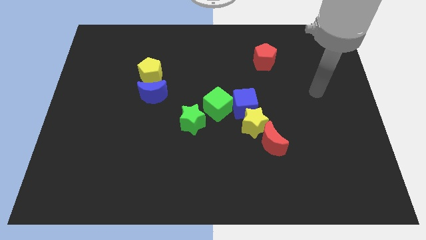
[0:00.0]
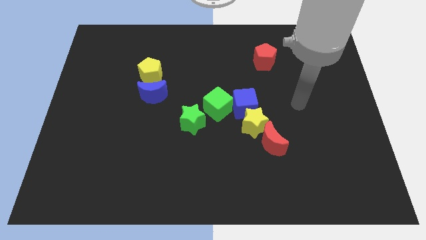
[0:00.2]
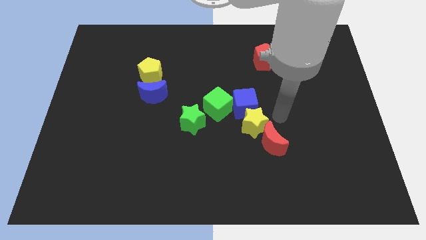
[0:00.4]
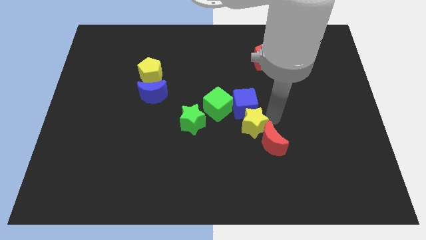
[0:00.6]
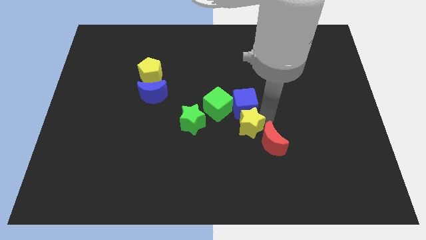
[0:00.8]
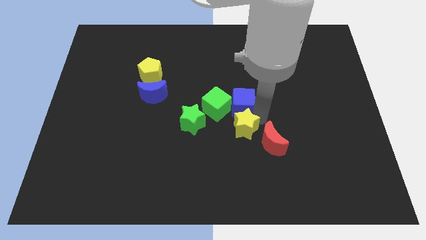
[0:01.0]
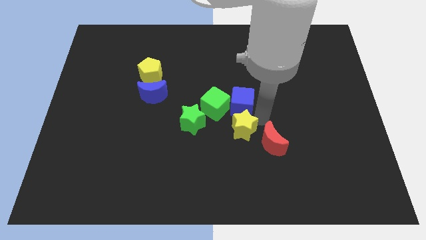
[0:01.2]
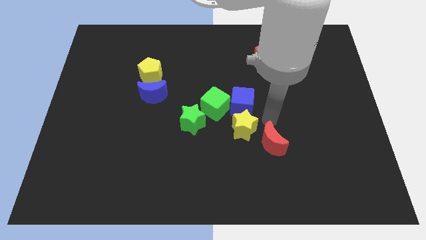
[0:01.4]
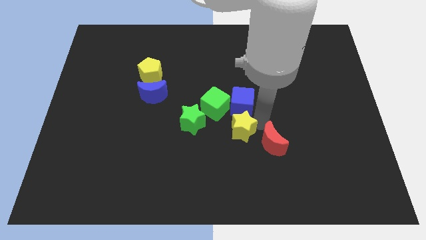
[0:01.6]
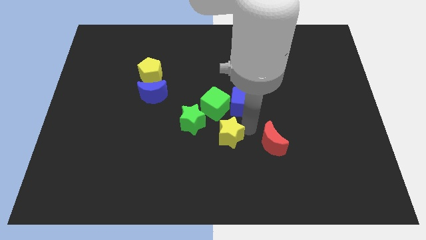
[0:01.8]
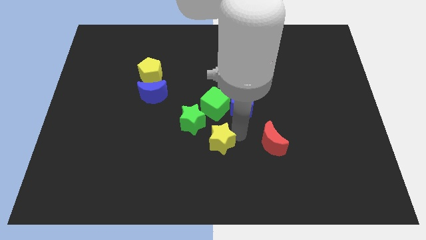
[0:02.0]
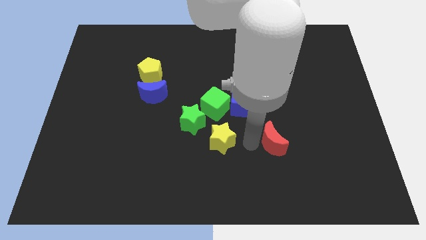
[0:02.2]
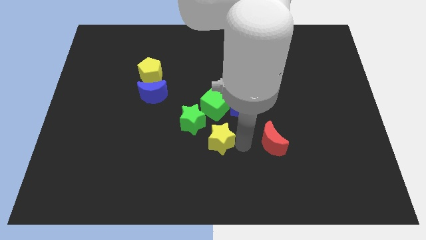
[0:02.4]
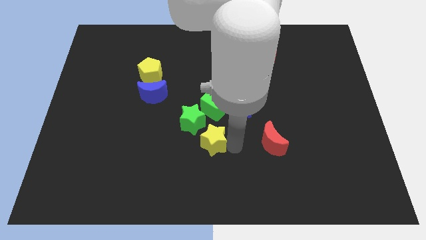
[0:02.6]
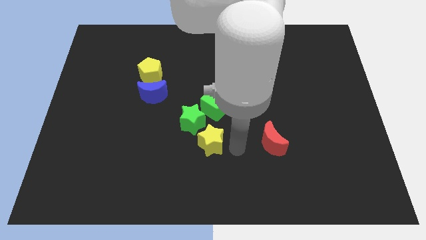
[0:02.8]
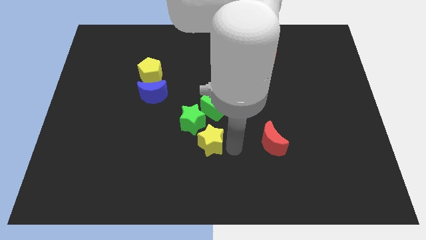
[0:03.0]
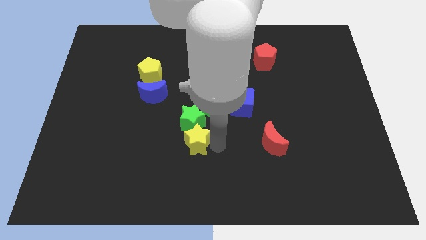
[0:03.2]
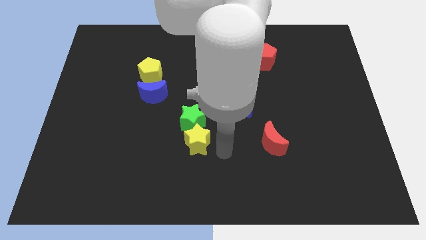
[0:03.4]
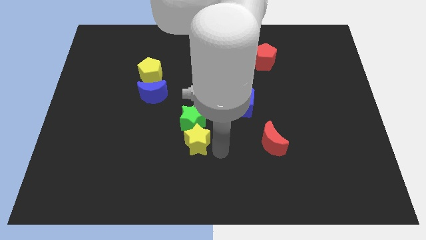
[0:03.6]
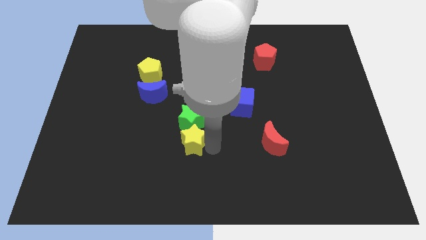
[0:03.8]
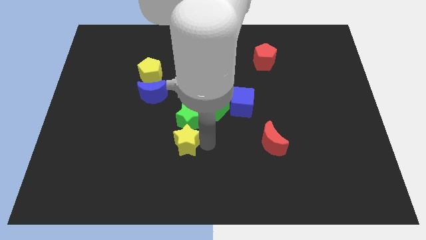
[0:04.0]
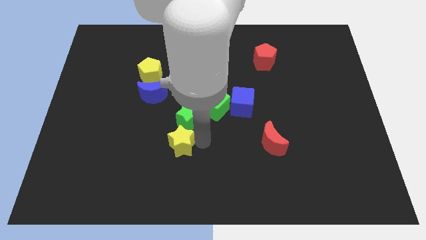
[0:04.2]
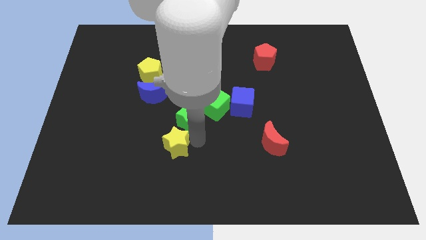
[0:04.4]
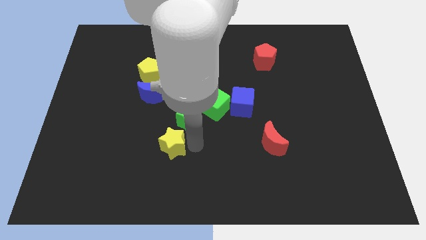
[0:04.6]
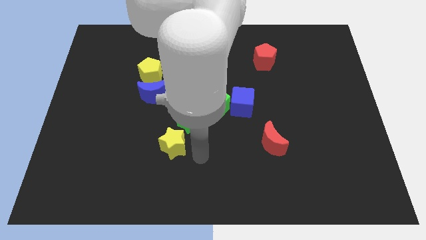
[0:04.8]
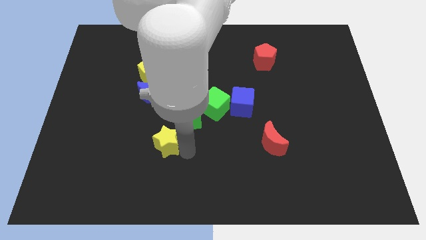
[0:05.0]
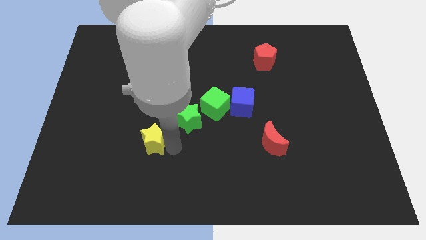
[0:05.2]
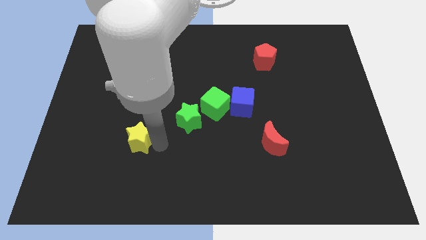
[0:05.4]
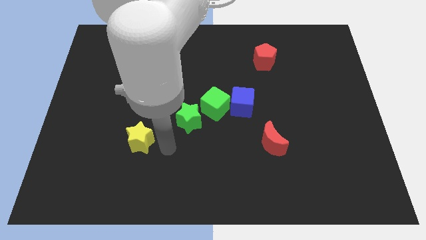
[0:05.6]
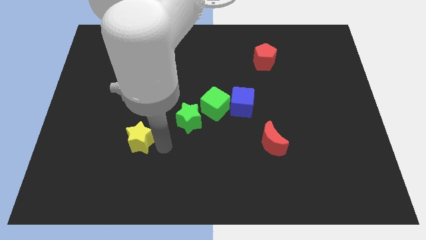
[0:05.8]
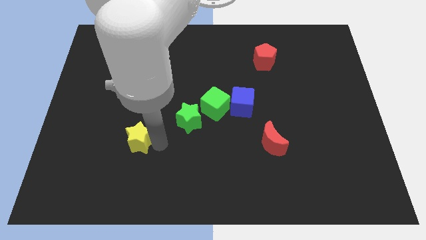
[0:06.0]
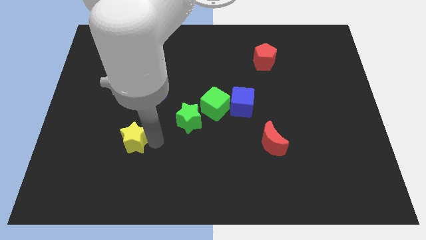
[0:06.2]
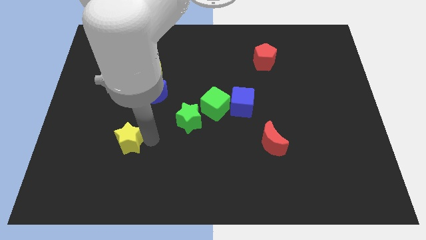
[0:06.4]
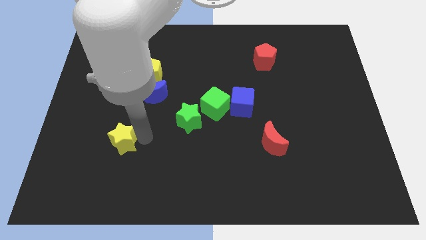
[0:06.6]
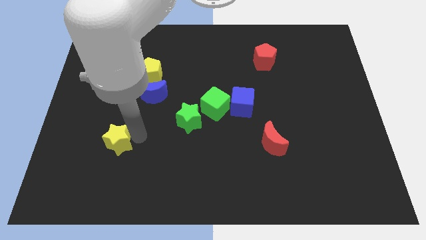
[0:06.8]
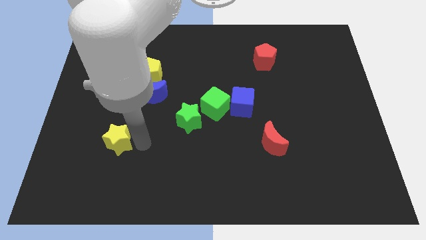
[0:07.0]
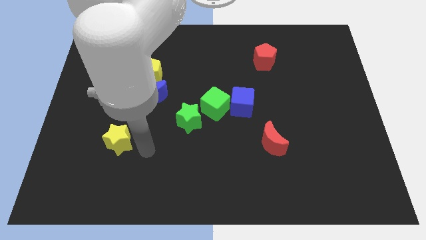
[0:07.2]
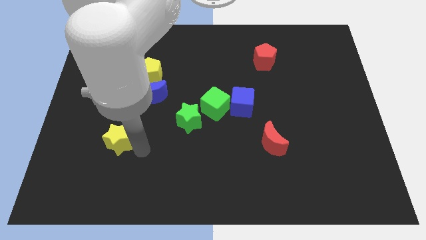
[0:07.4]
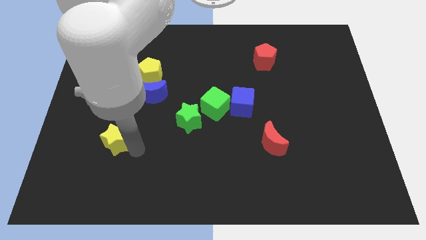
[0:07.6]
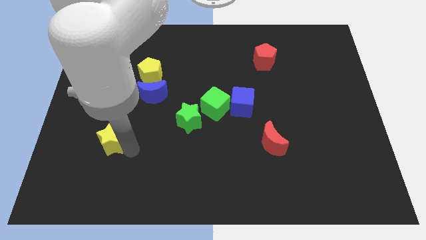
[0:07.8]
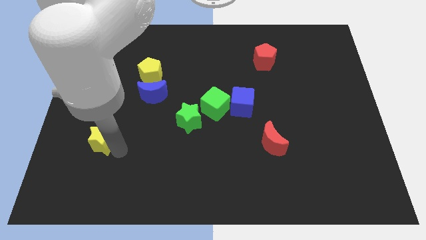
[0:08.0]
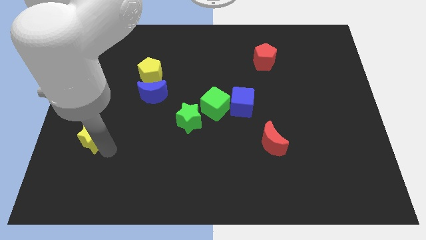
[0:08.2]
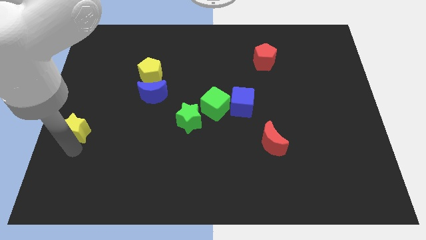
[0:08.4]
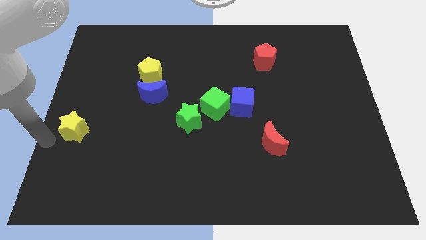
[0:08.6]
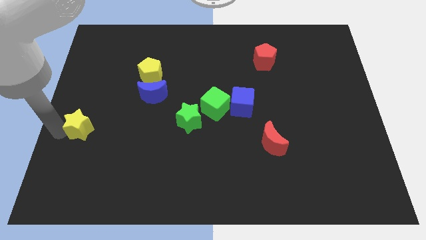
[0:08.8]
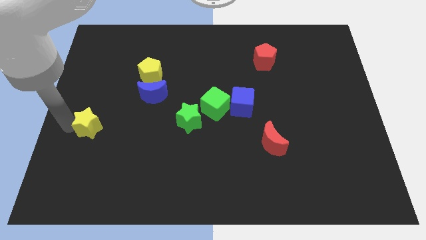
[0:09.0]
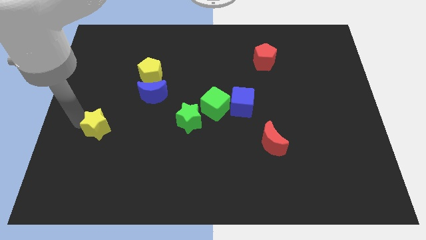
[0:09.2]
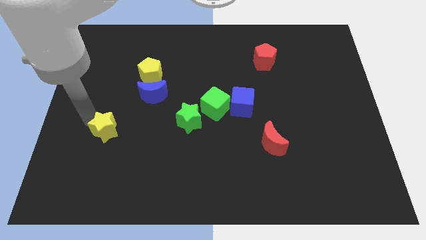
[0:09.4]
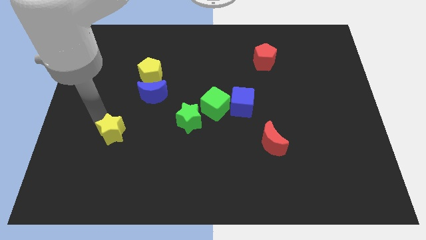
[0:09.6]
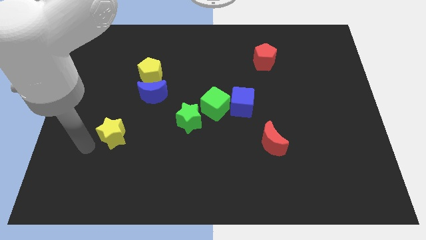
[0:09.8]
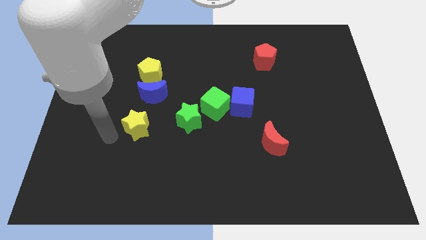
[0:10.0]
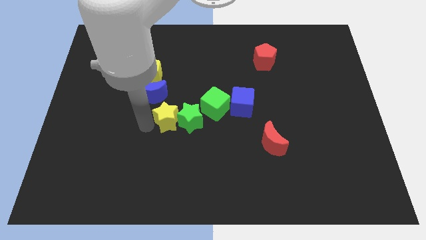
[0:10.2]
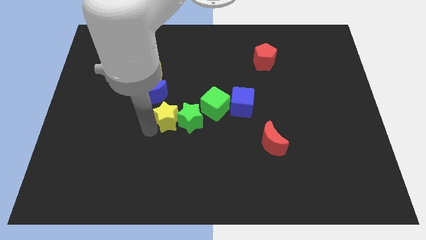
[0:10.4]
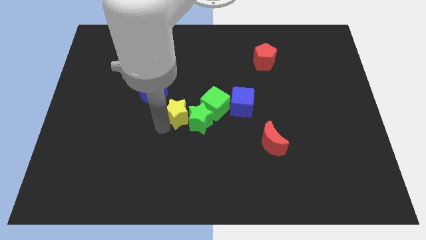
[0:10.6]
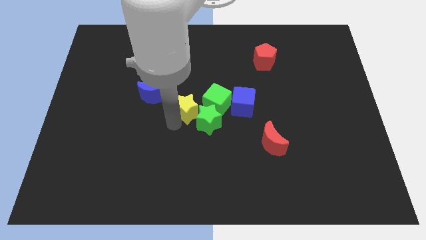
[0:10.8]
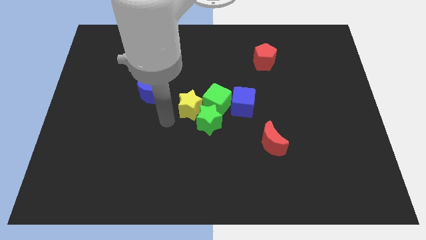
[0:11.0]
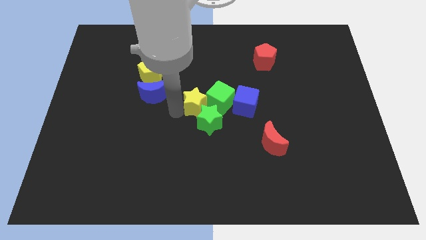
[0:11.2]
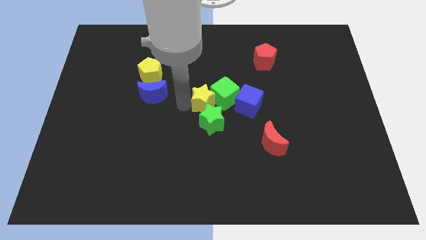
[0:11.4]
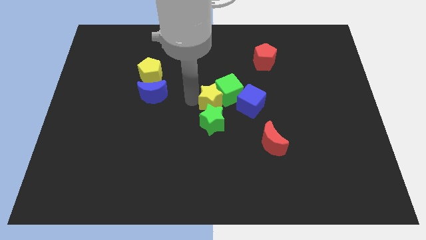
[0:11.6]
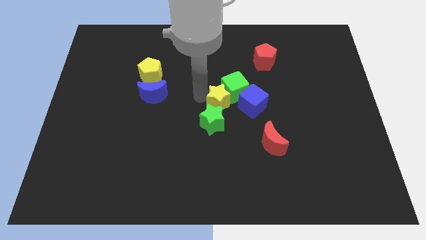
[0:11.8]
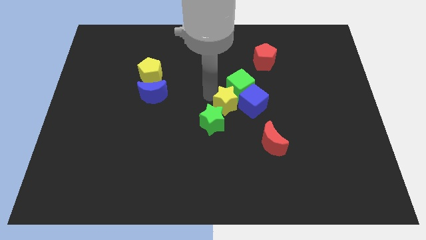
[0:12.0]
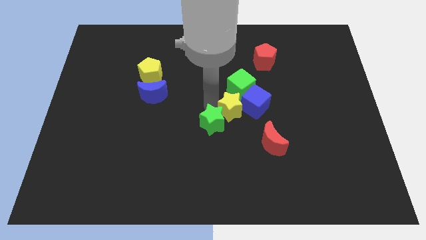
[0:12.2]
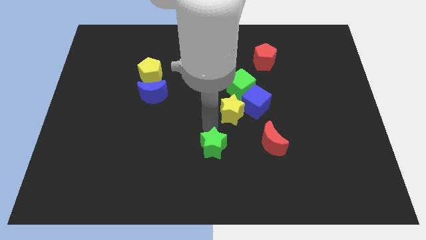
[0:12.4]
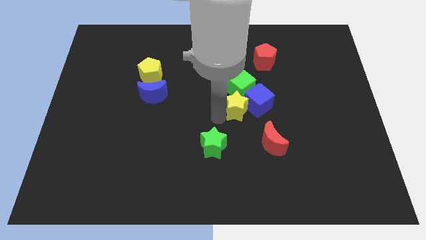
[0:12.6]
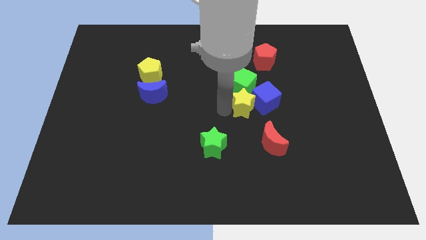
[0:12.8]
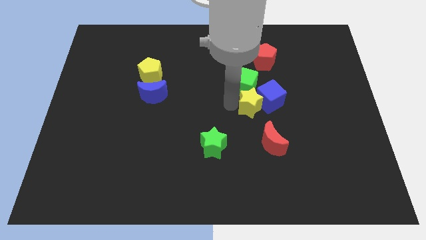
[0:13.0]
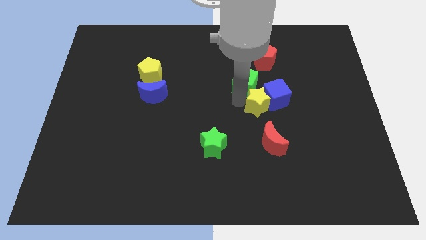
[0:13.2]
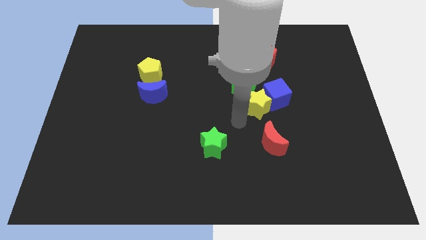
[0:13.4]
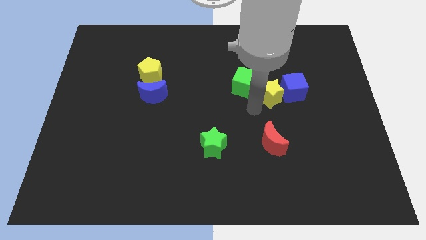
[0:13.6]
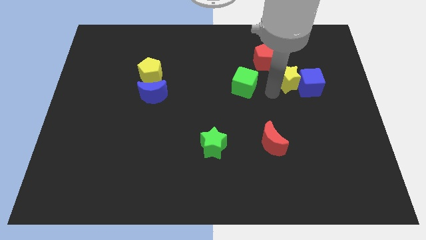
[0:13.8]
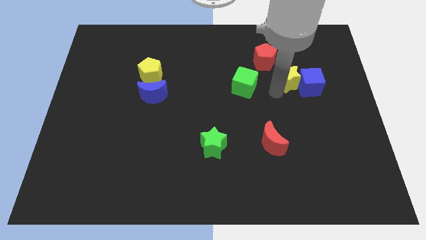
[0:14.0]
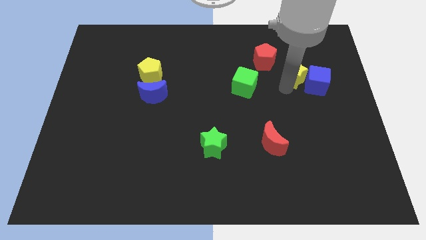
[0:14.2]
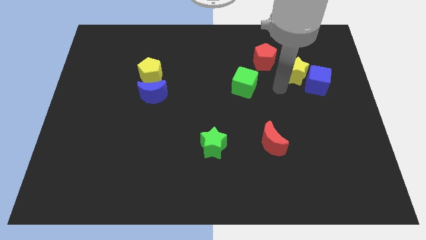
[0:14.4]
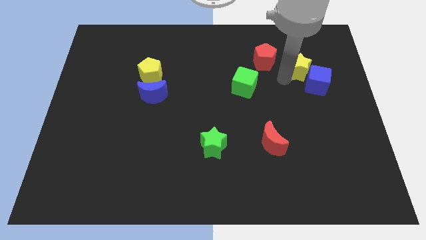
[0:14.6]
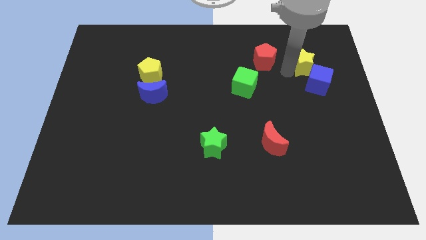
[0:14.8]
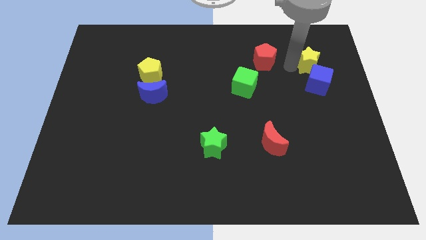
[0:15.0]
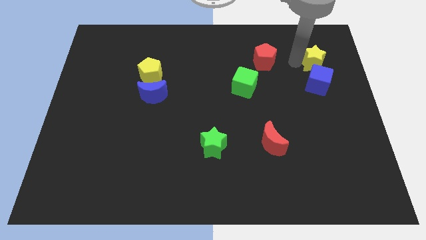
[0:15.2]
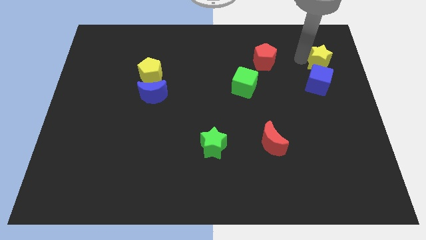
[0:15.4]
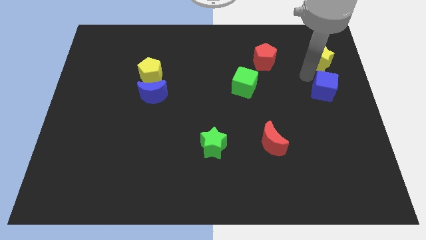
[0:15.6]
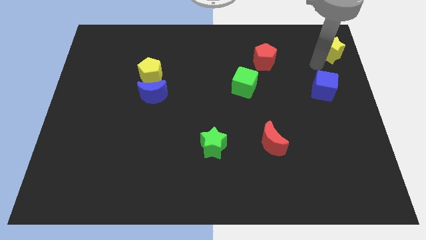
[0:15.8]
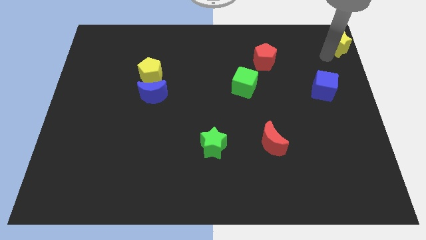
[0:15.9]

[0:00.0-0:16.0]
put the yellow star to the top right
